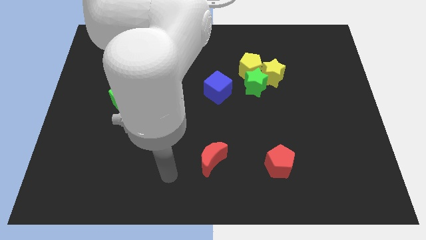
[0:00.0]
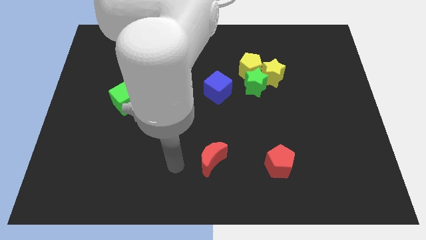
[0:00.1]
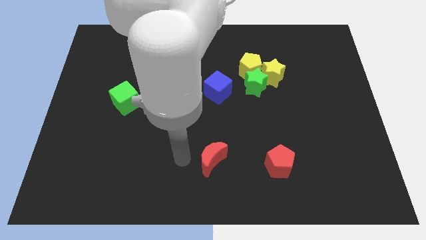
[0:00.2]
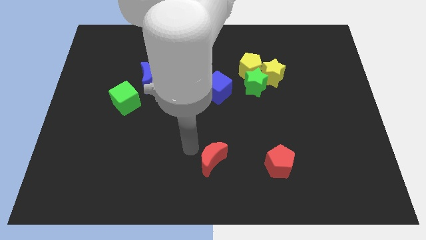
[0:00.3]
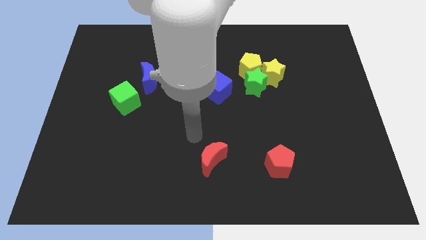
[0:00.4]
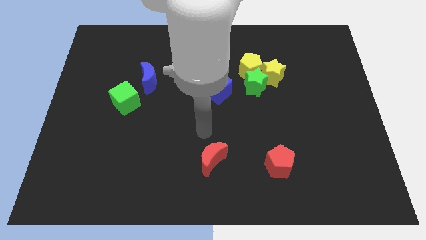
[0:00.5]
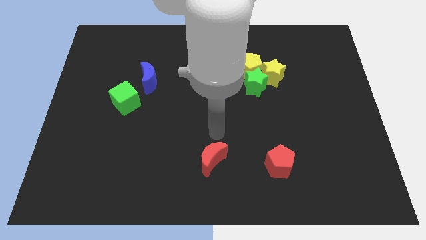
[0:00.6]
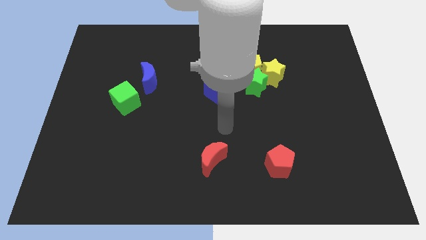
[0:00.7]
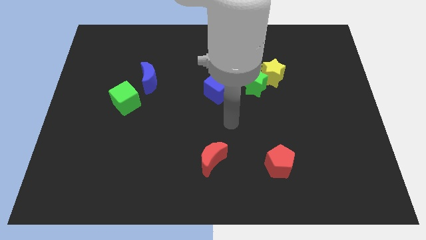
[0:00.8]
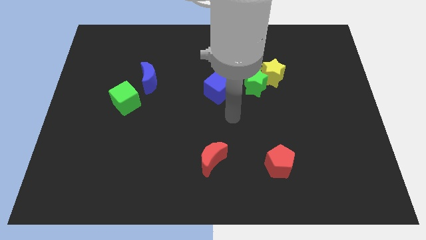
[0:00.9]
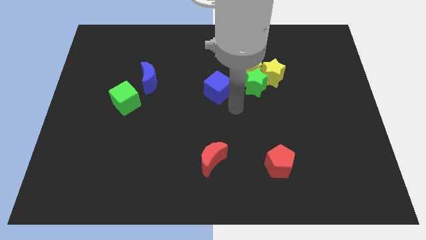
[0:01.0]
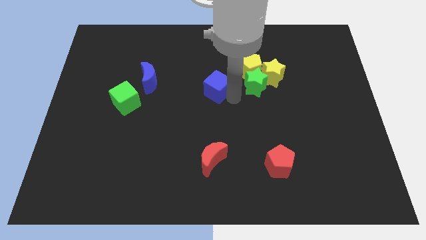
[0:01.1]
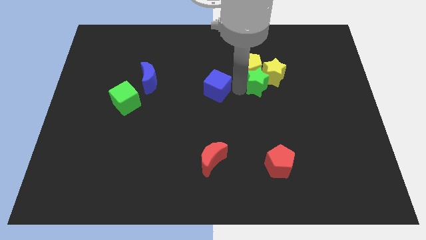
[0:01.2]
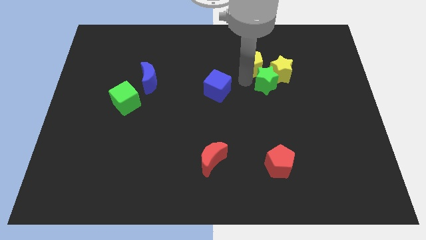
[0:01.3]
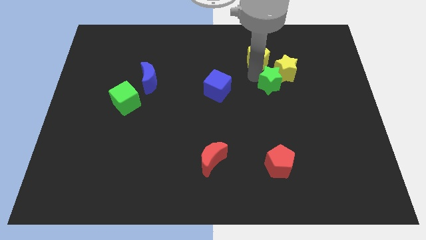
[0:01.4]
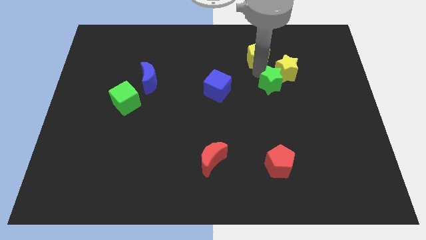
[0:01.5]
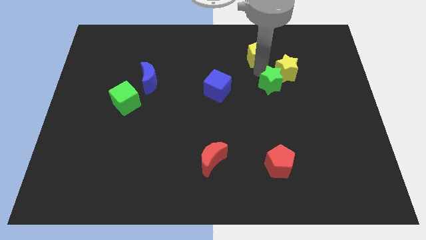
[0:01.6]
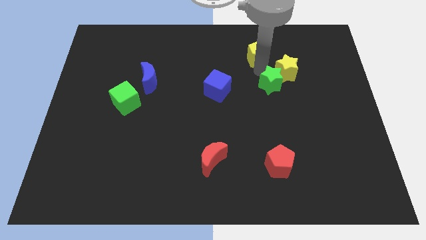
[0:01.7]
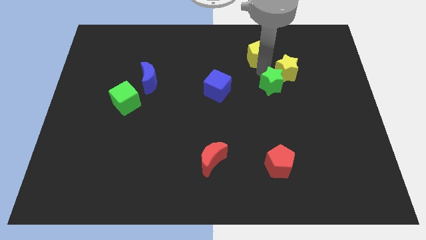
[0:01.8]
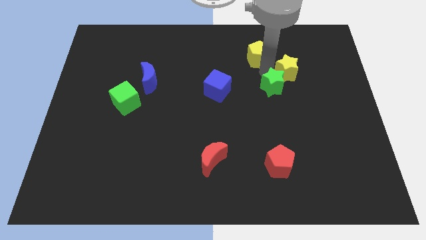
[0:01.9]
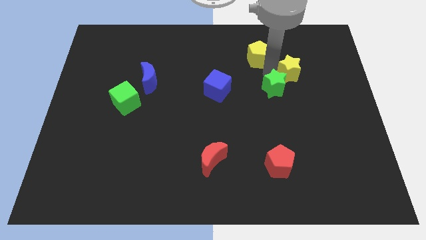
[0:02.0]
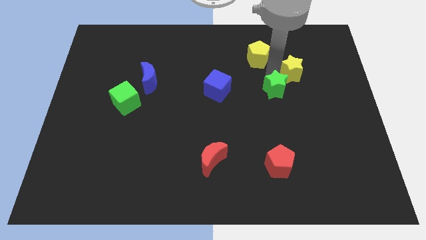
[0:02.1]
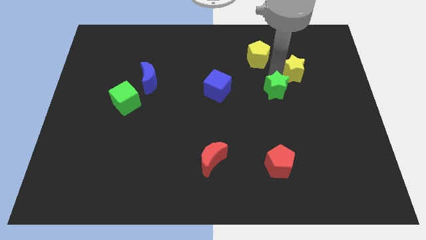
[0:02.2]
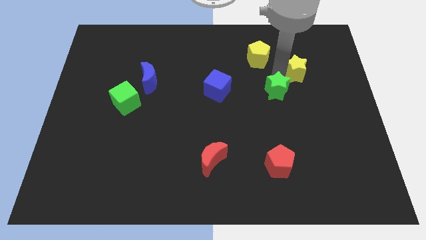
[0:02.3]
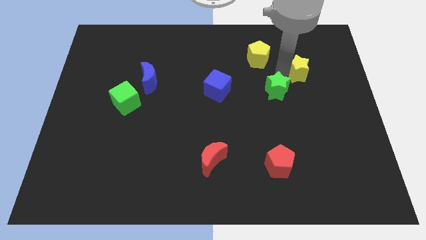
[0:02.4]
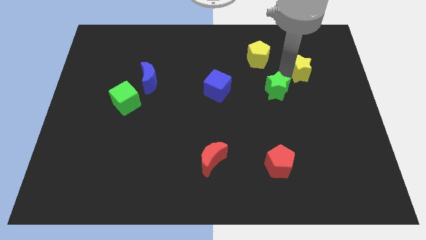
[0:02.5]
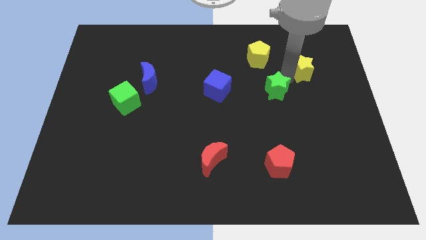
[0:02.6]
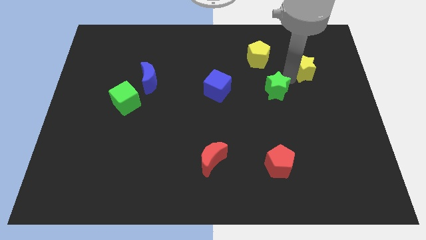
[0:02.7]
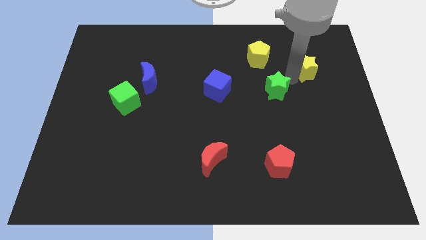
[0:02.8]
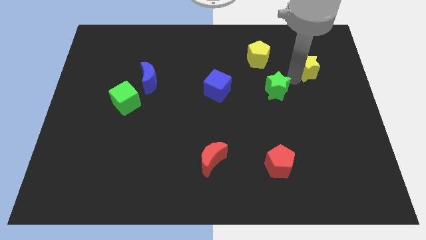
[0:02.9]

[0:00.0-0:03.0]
pull the yellow star apart from the green star and yellow pentagon

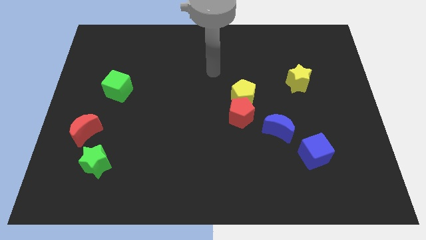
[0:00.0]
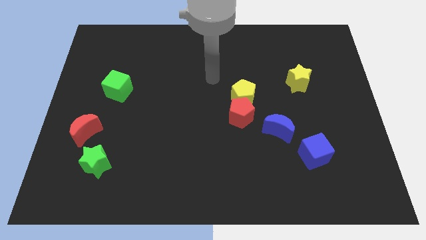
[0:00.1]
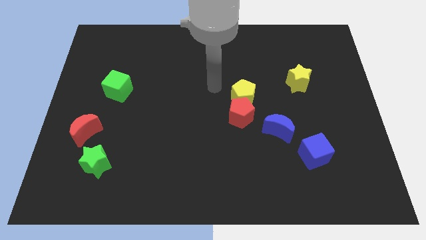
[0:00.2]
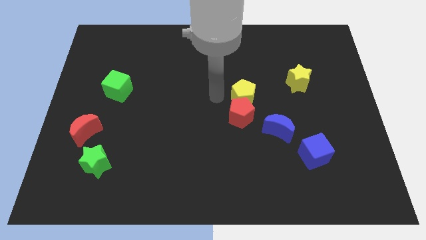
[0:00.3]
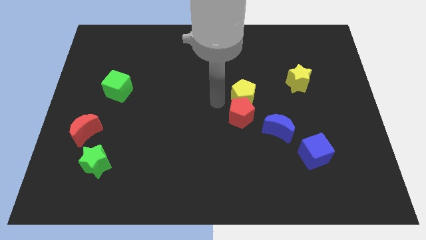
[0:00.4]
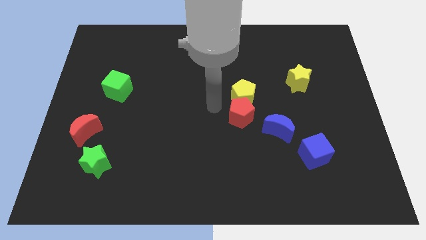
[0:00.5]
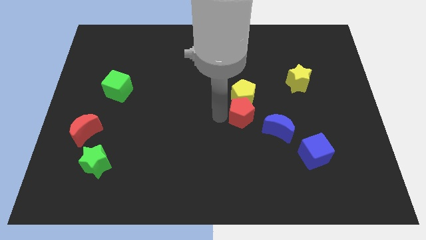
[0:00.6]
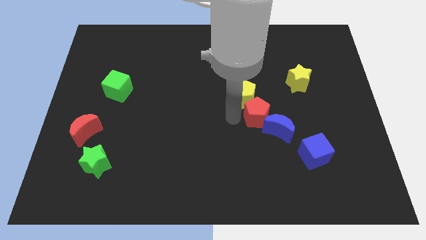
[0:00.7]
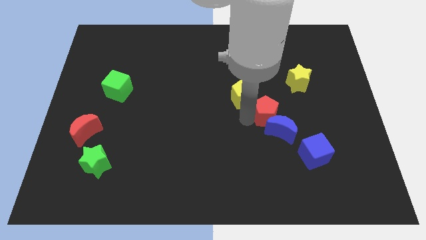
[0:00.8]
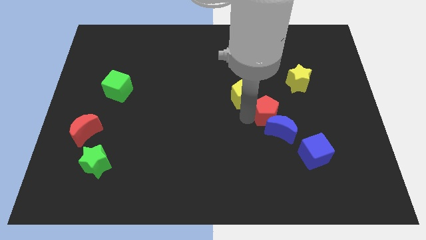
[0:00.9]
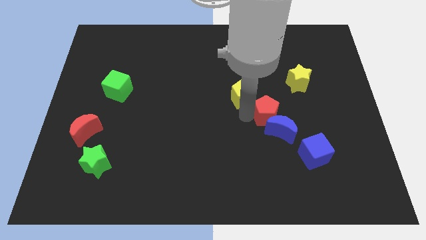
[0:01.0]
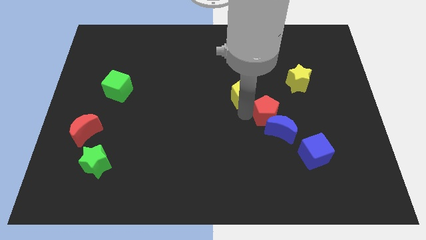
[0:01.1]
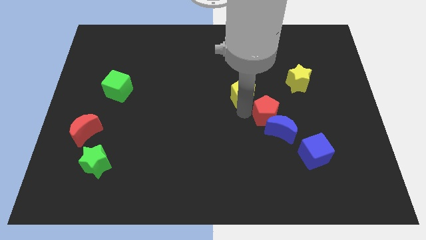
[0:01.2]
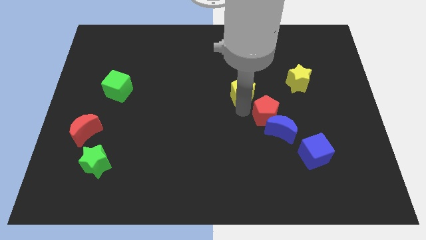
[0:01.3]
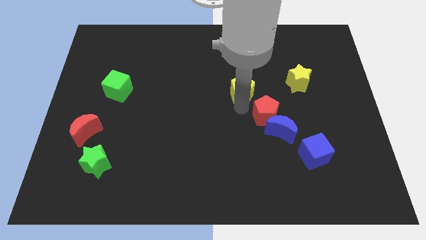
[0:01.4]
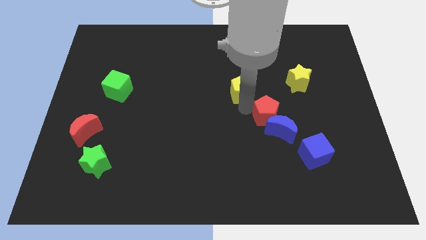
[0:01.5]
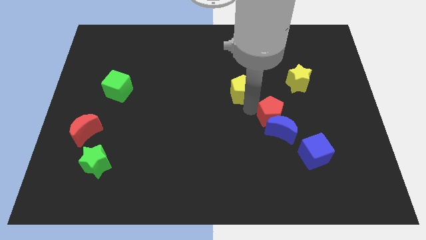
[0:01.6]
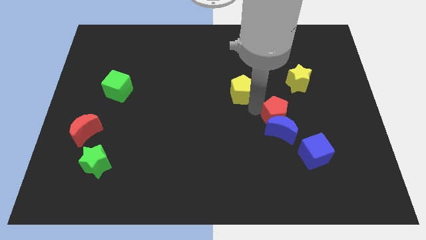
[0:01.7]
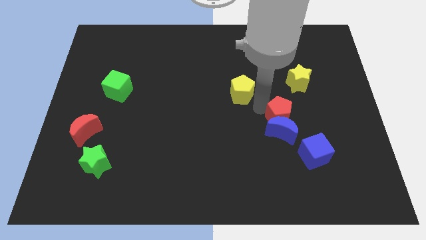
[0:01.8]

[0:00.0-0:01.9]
separate the yellow pentagon from the red pentagon

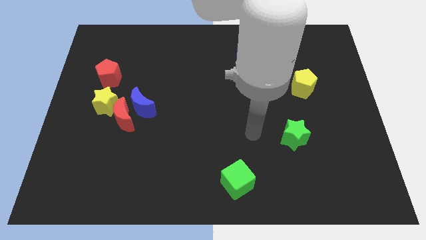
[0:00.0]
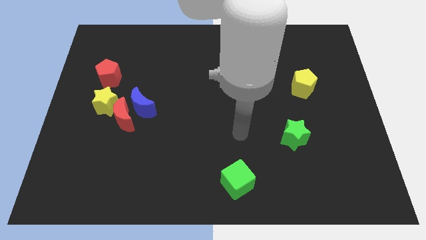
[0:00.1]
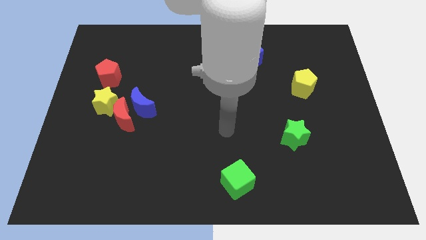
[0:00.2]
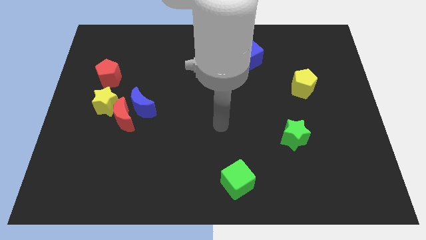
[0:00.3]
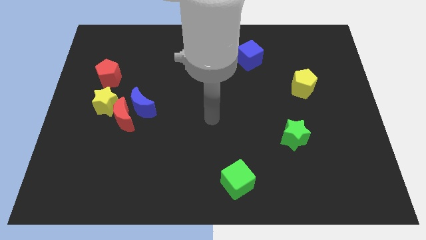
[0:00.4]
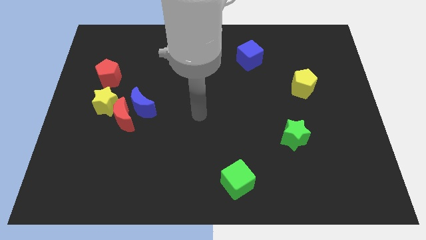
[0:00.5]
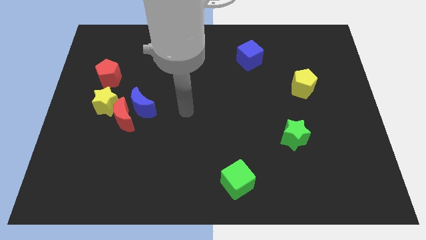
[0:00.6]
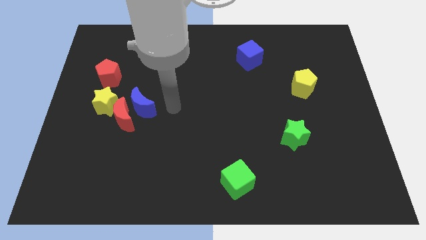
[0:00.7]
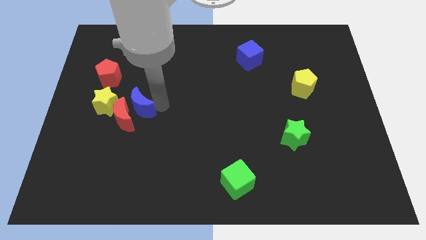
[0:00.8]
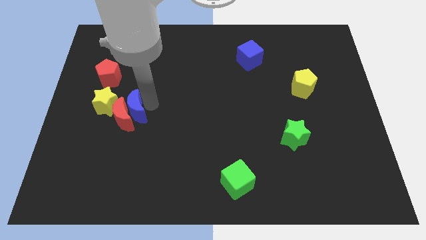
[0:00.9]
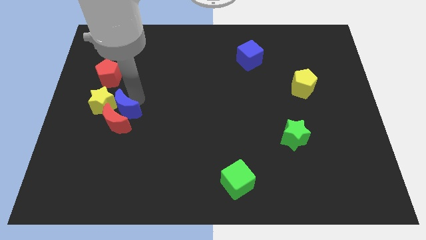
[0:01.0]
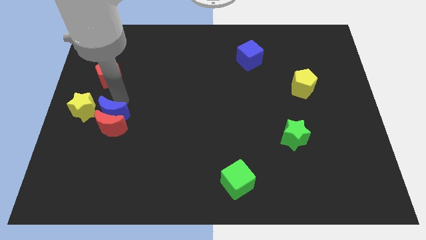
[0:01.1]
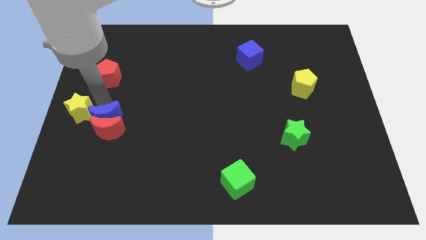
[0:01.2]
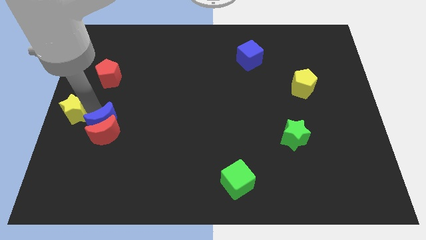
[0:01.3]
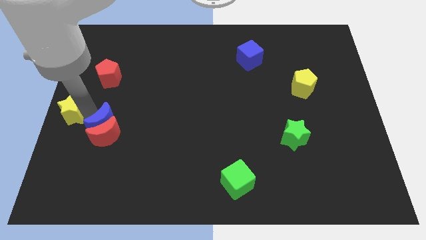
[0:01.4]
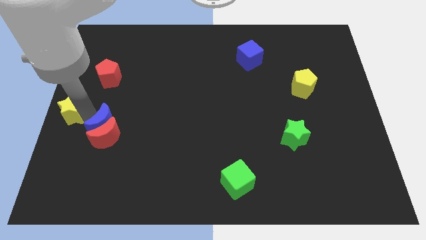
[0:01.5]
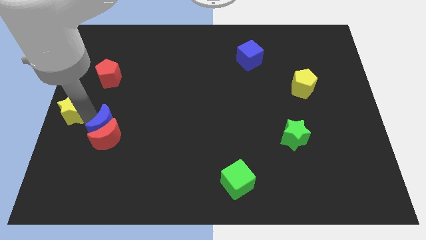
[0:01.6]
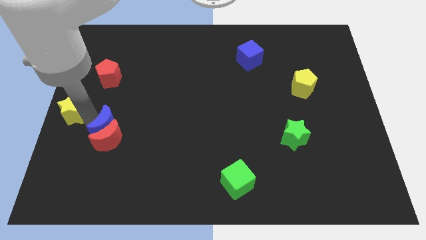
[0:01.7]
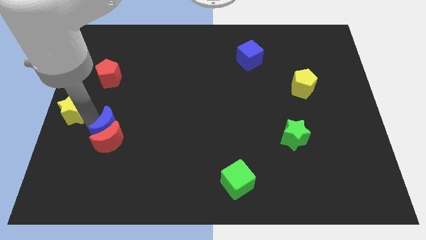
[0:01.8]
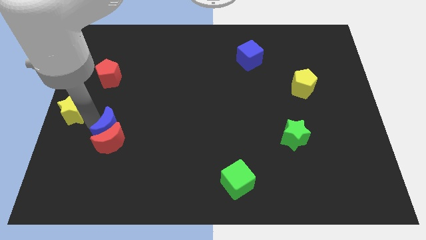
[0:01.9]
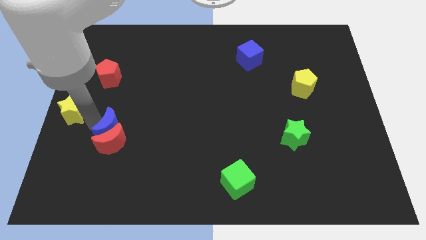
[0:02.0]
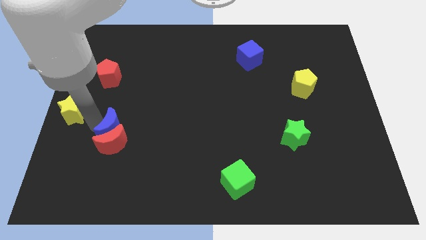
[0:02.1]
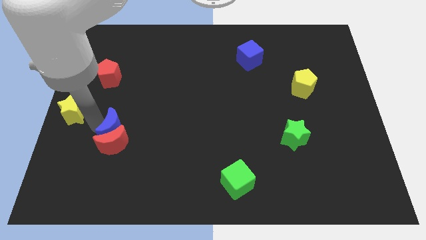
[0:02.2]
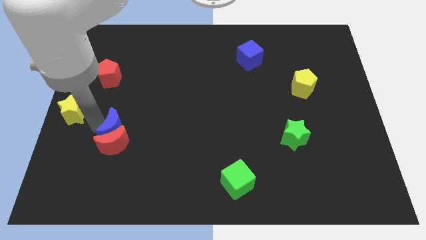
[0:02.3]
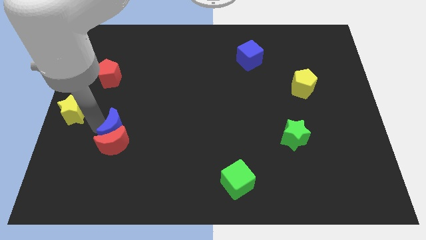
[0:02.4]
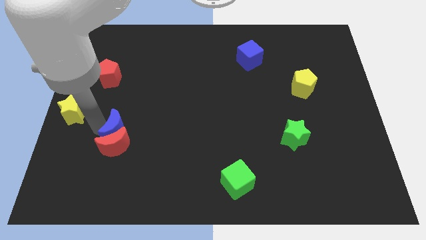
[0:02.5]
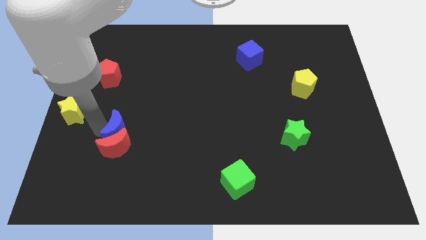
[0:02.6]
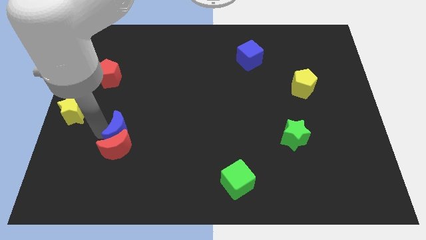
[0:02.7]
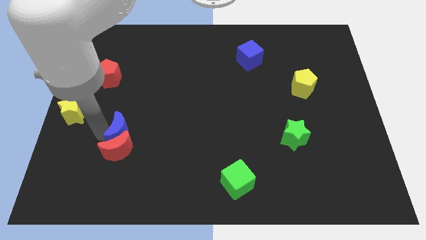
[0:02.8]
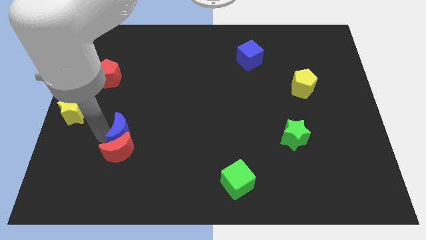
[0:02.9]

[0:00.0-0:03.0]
pull the red moon apart from the blue moon and yellow star

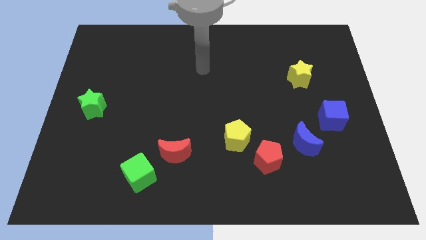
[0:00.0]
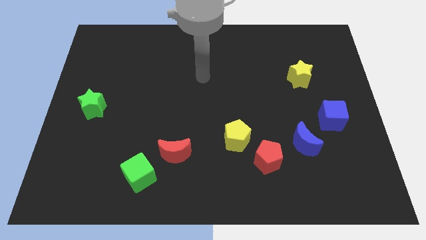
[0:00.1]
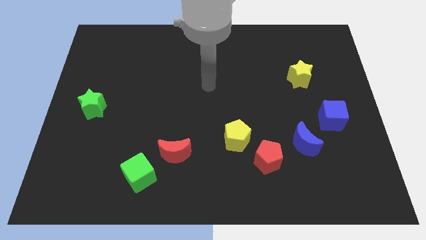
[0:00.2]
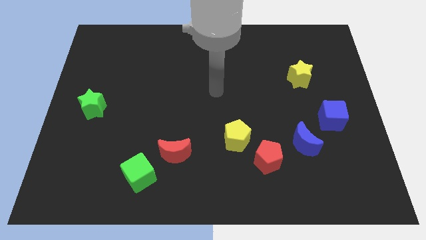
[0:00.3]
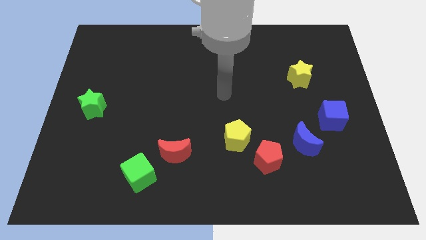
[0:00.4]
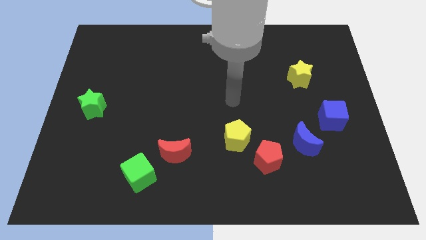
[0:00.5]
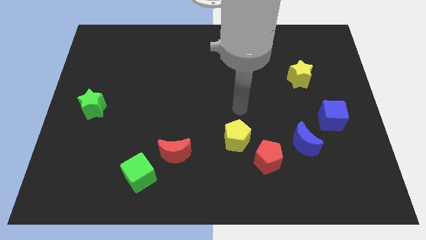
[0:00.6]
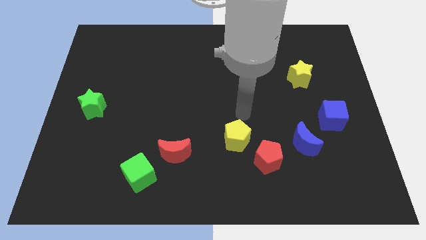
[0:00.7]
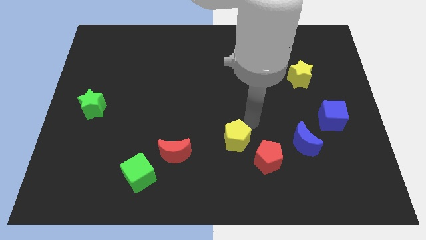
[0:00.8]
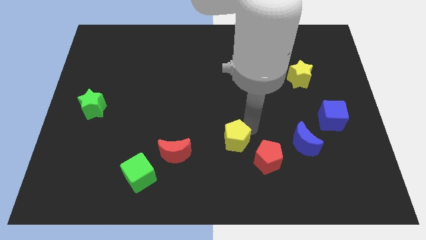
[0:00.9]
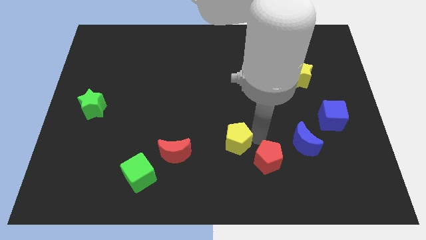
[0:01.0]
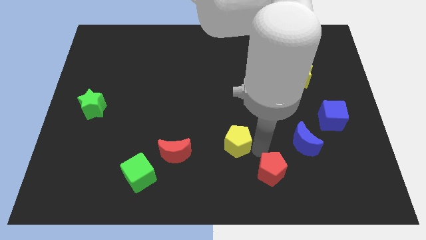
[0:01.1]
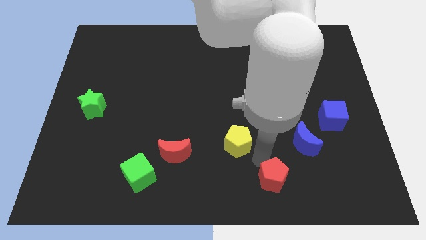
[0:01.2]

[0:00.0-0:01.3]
pull the yellow pentagon apart from the red pentagon

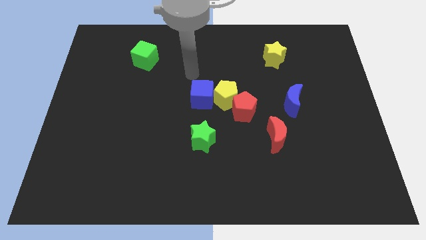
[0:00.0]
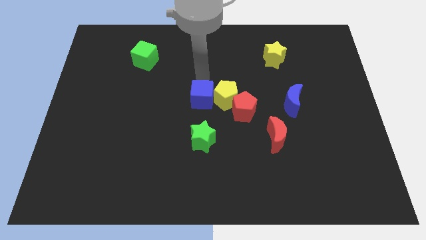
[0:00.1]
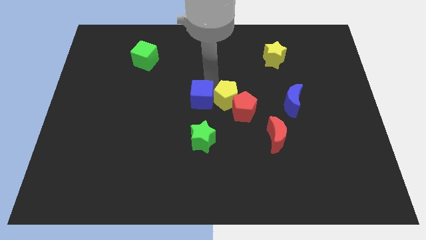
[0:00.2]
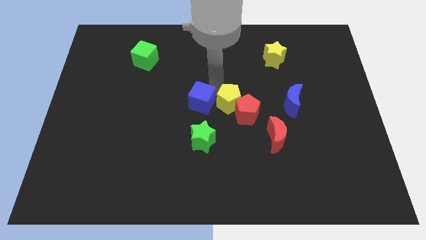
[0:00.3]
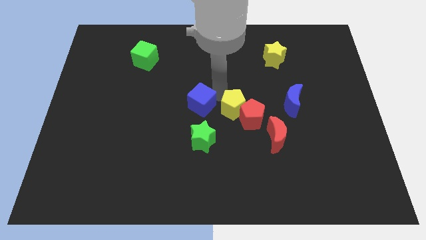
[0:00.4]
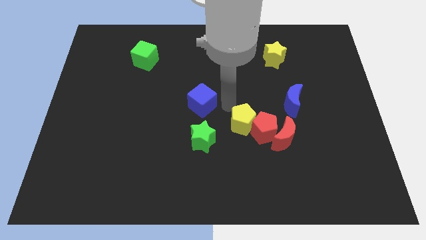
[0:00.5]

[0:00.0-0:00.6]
pull the blue cube apart from the yellow pentagon